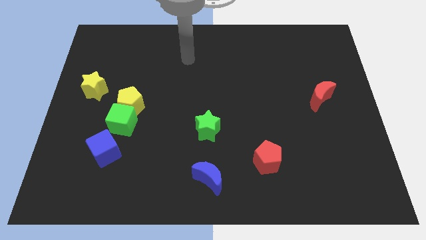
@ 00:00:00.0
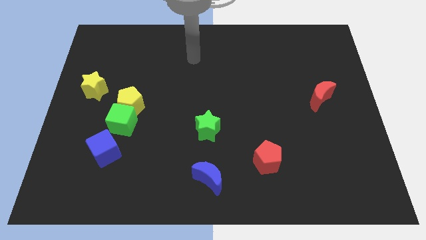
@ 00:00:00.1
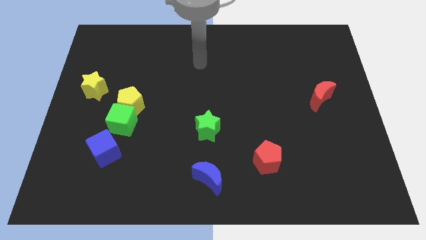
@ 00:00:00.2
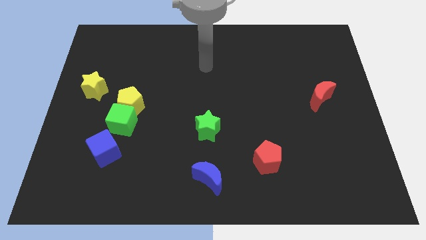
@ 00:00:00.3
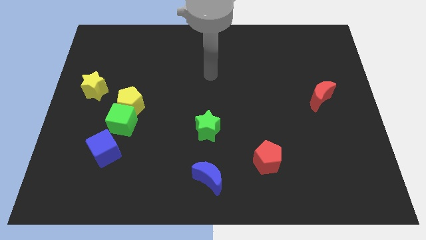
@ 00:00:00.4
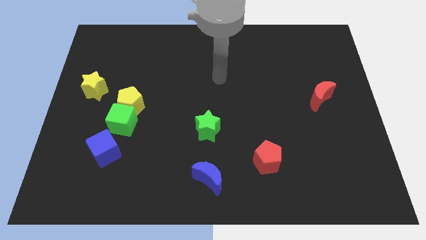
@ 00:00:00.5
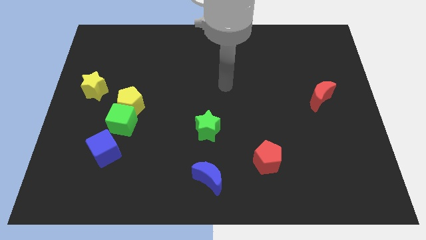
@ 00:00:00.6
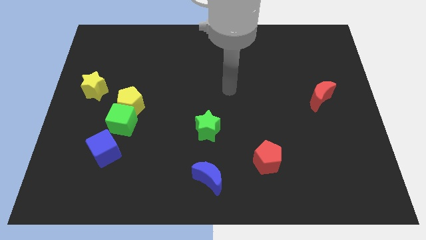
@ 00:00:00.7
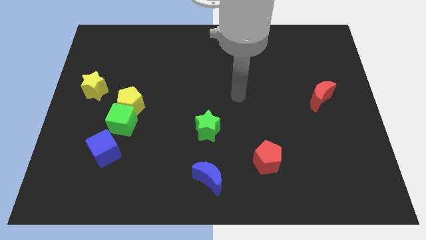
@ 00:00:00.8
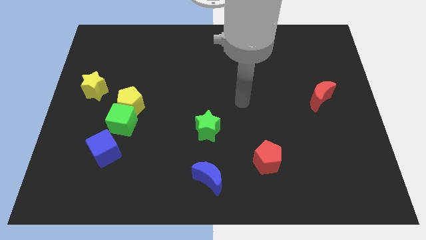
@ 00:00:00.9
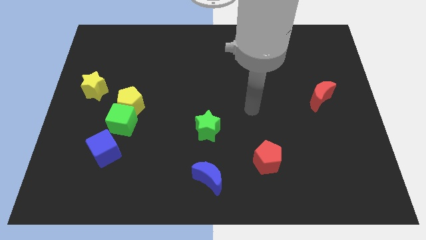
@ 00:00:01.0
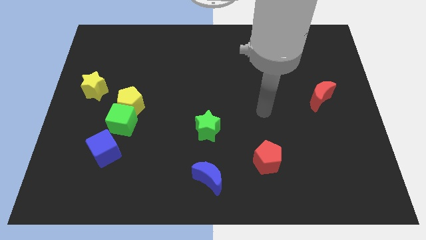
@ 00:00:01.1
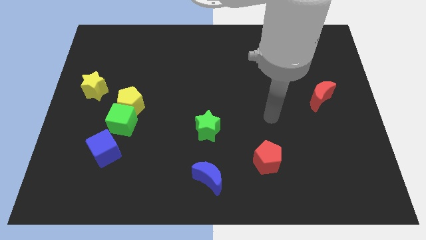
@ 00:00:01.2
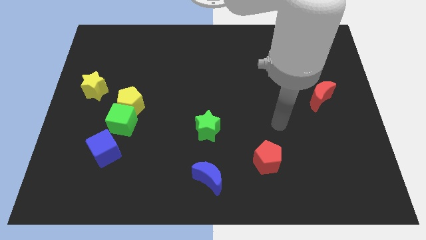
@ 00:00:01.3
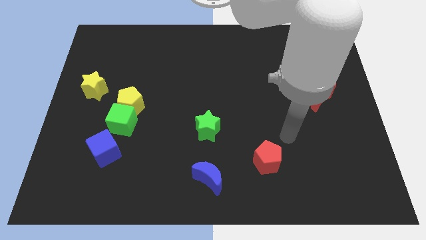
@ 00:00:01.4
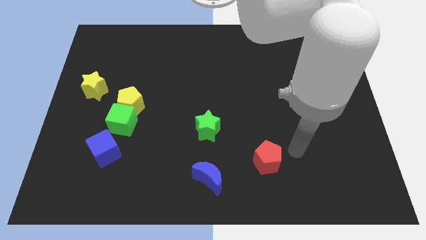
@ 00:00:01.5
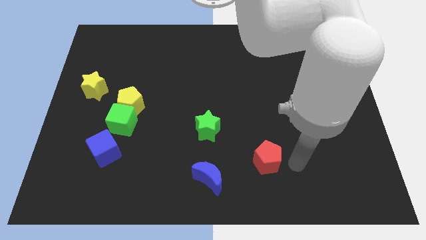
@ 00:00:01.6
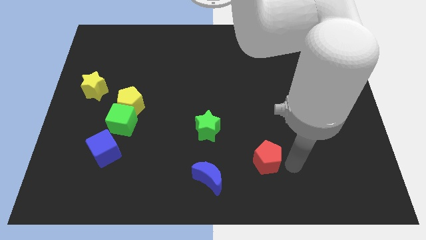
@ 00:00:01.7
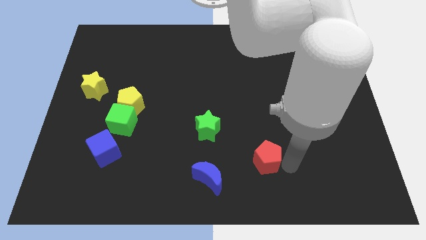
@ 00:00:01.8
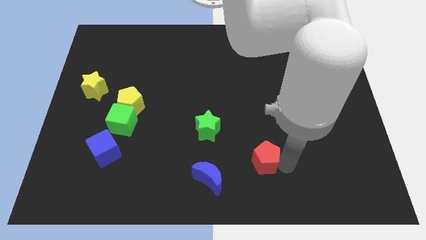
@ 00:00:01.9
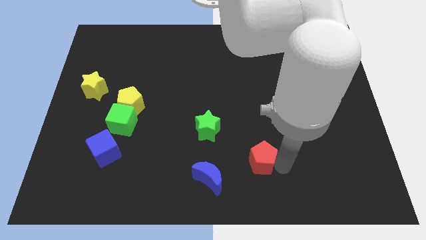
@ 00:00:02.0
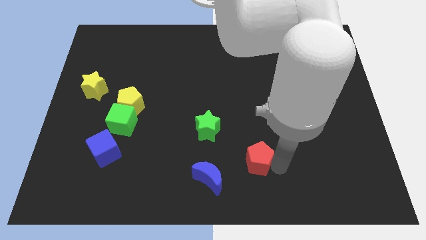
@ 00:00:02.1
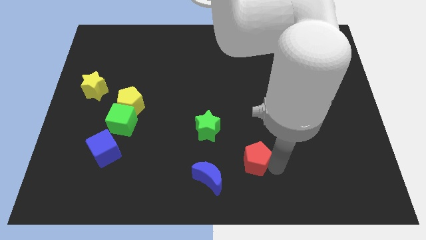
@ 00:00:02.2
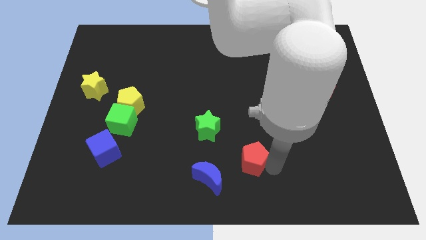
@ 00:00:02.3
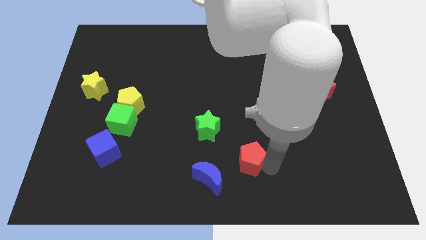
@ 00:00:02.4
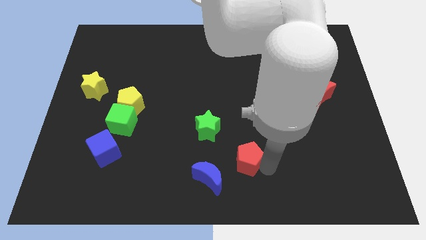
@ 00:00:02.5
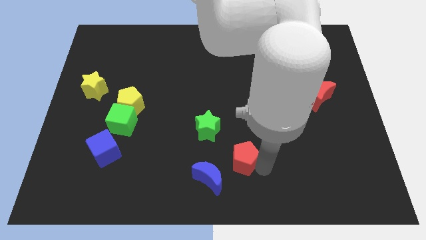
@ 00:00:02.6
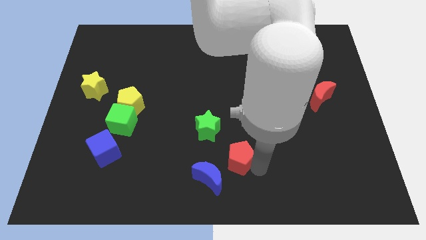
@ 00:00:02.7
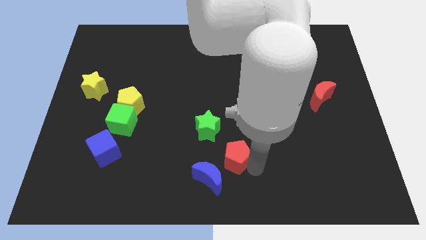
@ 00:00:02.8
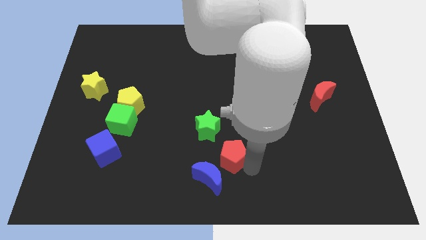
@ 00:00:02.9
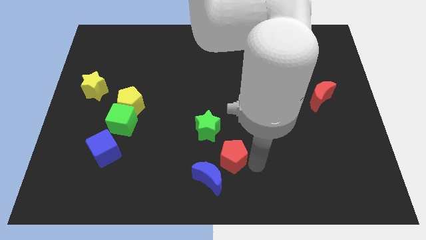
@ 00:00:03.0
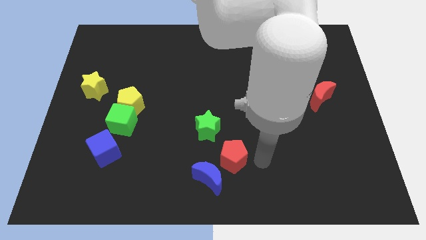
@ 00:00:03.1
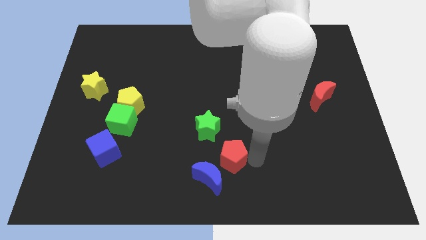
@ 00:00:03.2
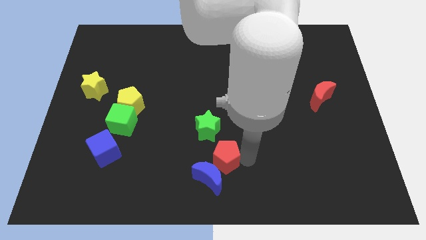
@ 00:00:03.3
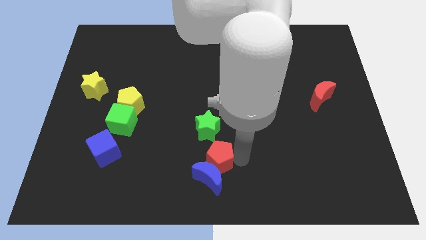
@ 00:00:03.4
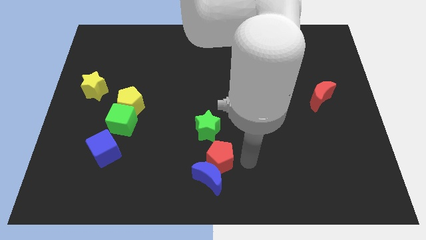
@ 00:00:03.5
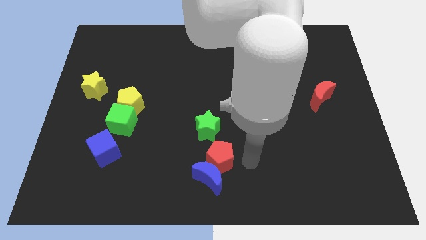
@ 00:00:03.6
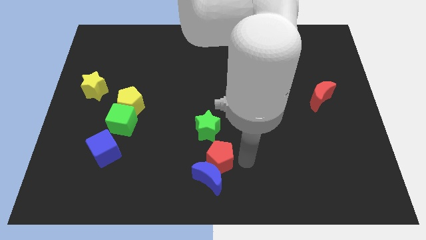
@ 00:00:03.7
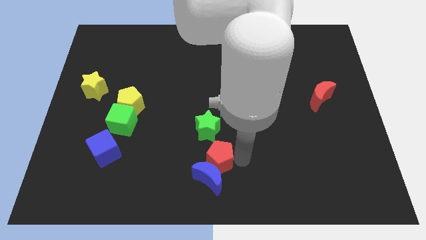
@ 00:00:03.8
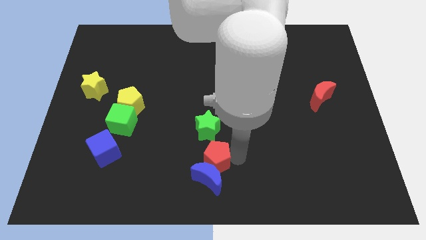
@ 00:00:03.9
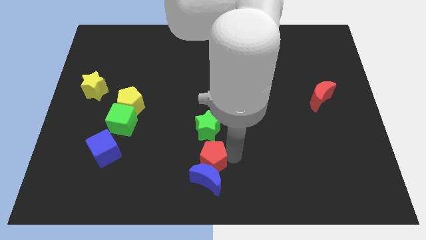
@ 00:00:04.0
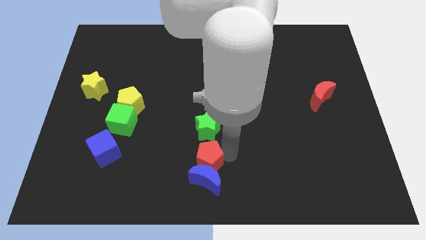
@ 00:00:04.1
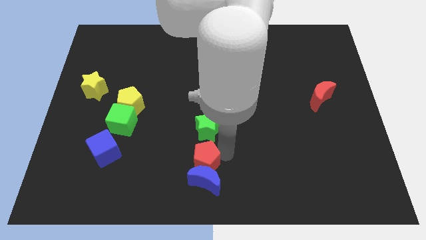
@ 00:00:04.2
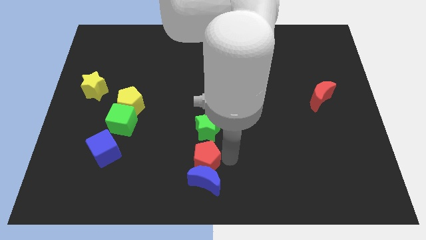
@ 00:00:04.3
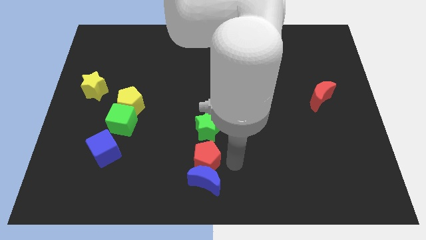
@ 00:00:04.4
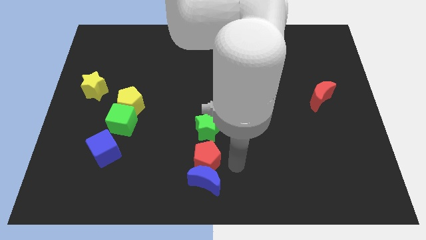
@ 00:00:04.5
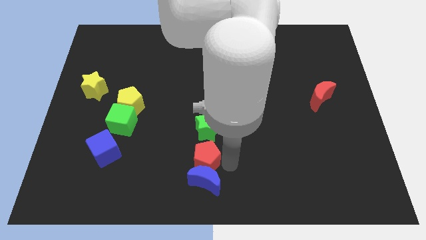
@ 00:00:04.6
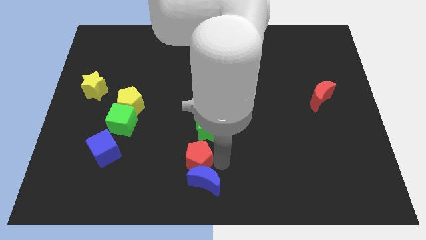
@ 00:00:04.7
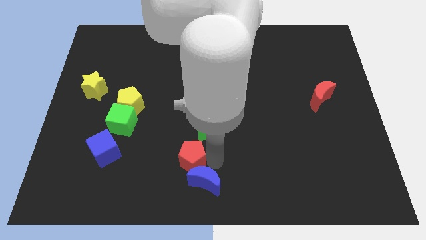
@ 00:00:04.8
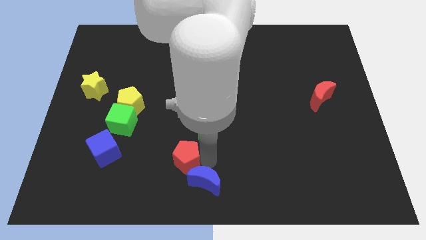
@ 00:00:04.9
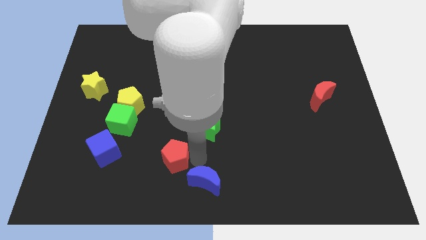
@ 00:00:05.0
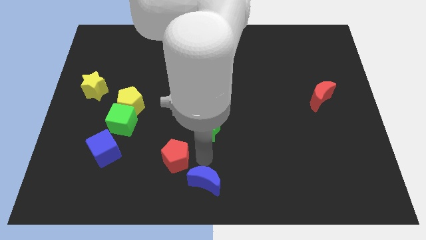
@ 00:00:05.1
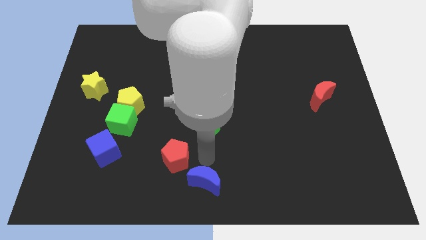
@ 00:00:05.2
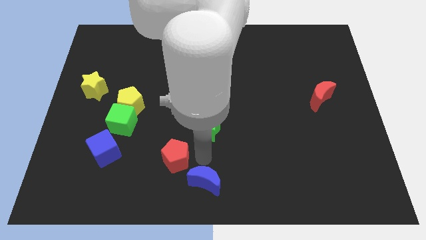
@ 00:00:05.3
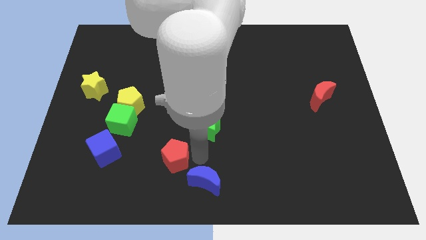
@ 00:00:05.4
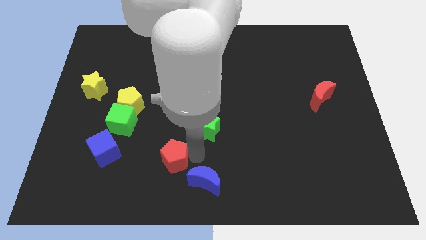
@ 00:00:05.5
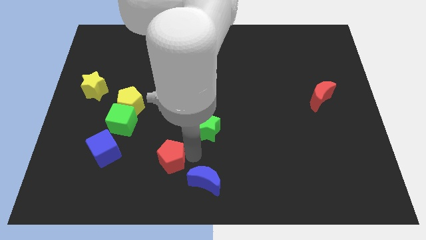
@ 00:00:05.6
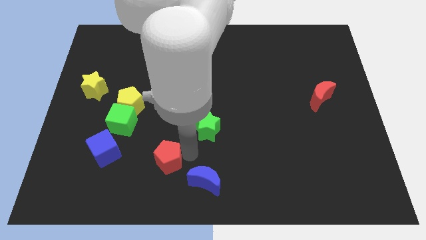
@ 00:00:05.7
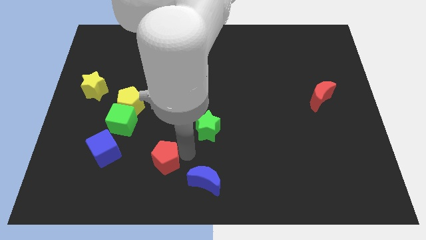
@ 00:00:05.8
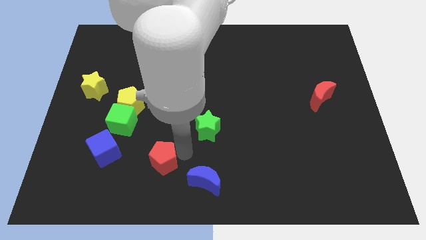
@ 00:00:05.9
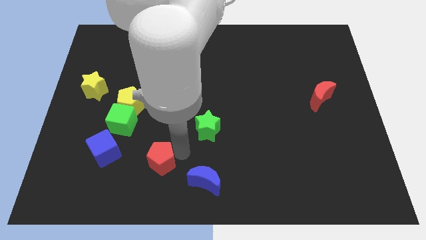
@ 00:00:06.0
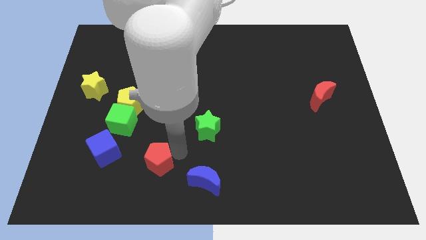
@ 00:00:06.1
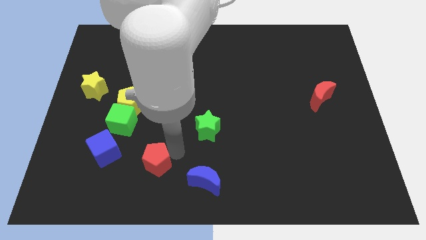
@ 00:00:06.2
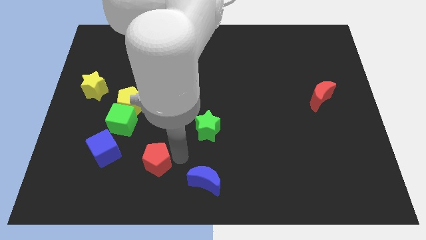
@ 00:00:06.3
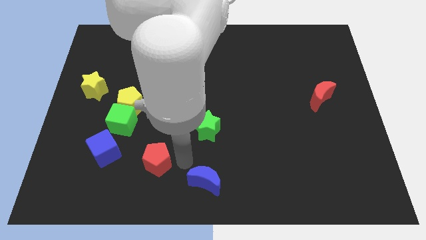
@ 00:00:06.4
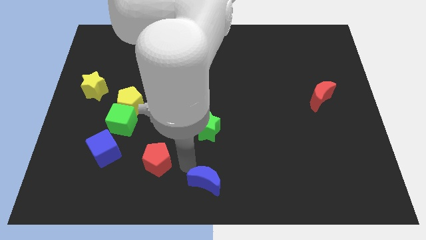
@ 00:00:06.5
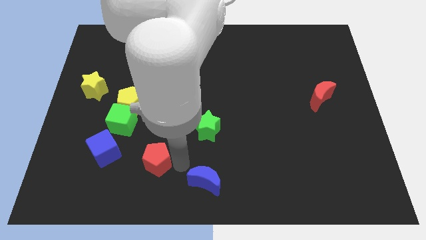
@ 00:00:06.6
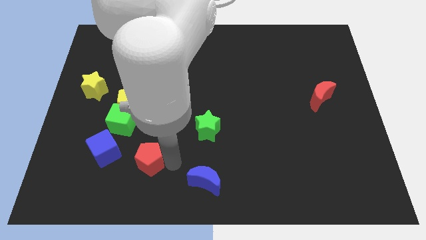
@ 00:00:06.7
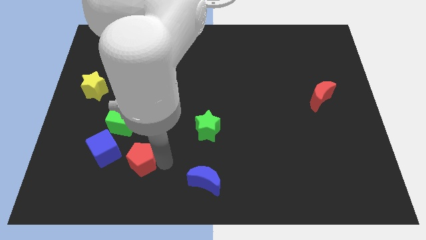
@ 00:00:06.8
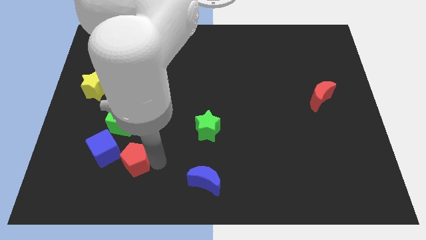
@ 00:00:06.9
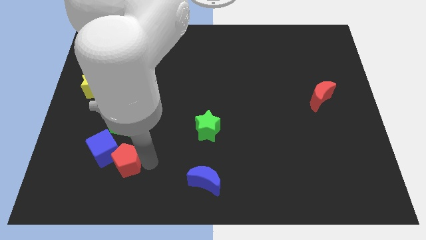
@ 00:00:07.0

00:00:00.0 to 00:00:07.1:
put the red pentagon to the blue cube

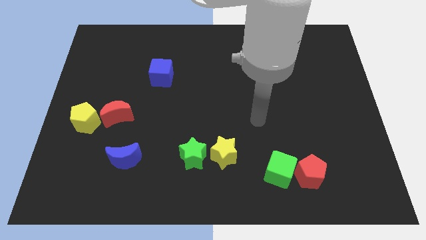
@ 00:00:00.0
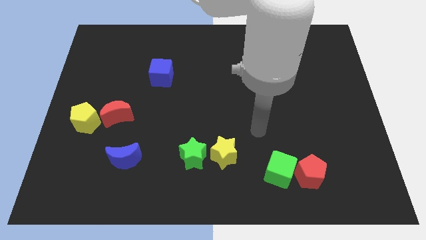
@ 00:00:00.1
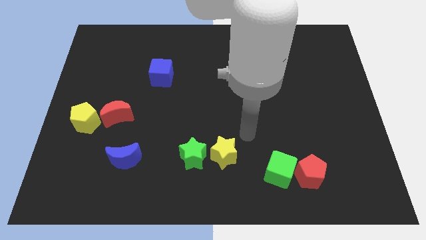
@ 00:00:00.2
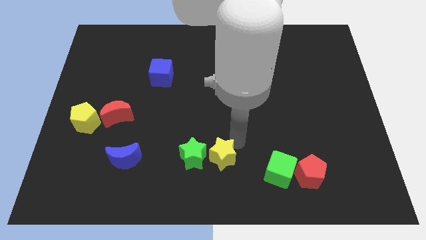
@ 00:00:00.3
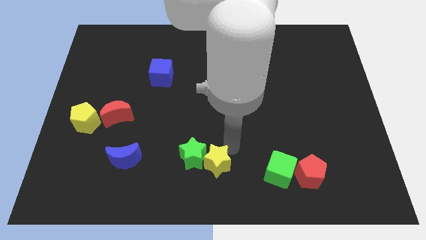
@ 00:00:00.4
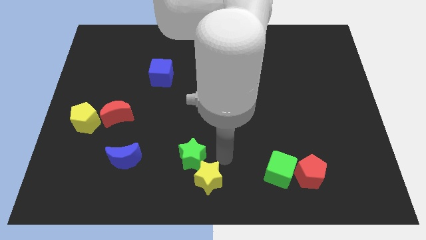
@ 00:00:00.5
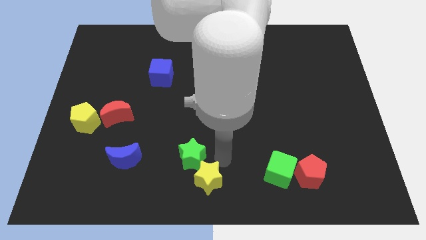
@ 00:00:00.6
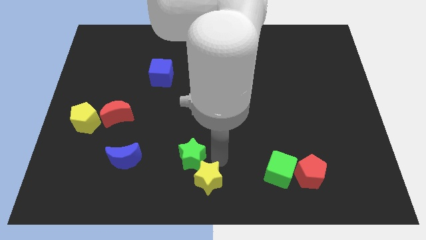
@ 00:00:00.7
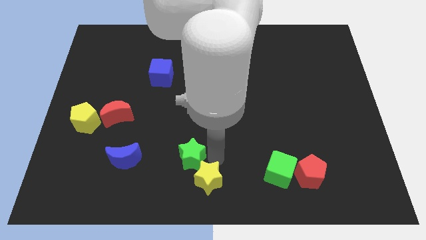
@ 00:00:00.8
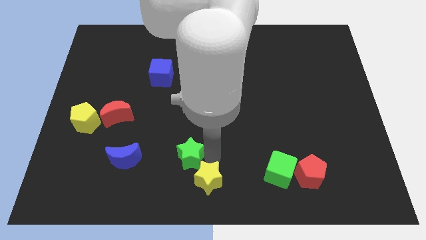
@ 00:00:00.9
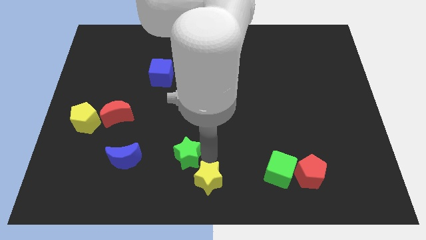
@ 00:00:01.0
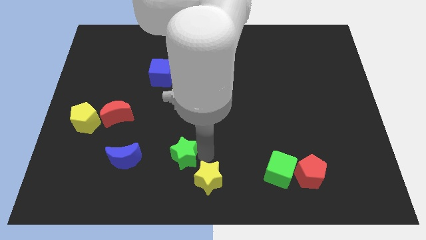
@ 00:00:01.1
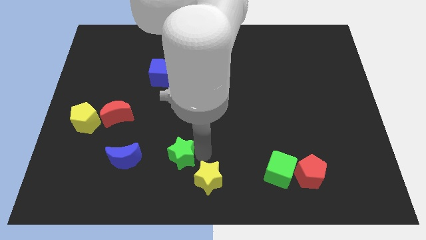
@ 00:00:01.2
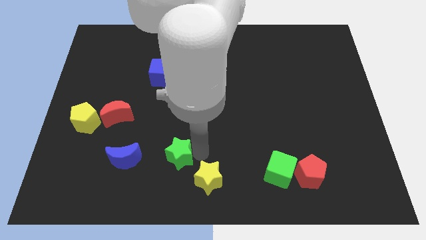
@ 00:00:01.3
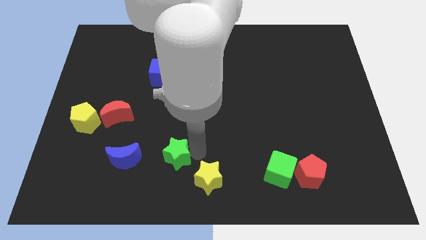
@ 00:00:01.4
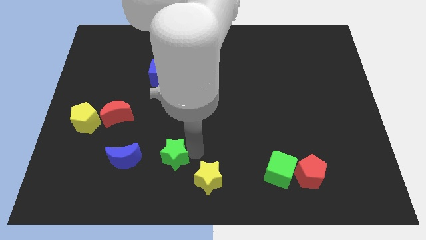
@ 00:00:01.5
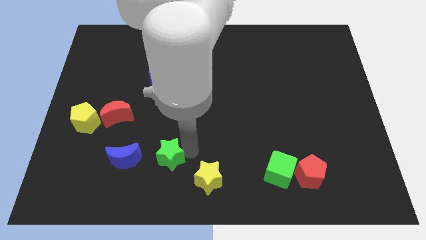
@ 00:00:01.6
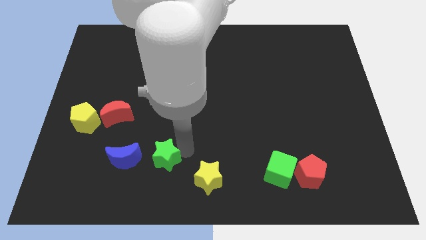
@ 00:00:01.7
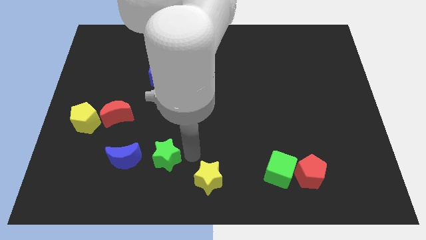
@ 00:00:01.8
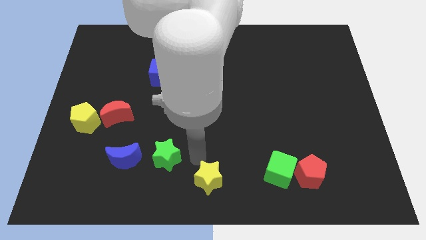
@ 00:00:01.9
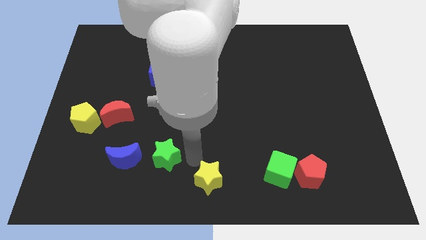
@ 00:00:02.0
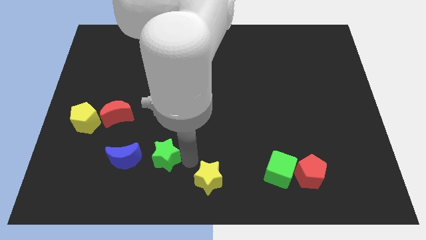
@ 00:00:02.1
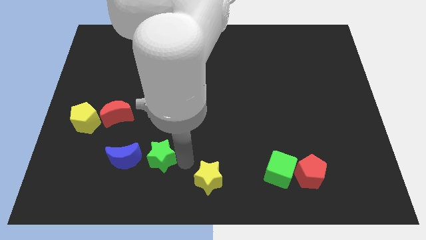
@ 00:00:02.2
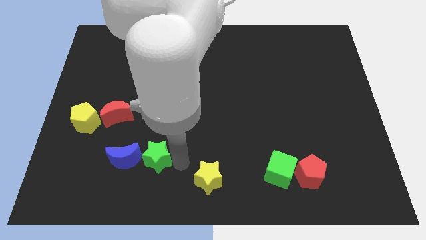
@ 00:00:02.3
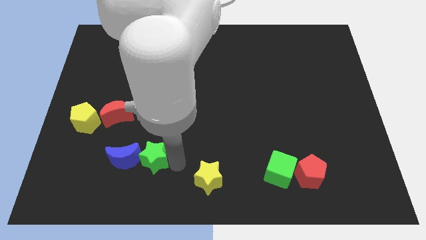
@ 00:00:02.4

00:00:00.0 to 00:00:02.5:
move the green star close to the blue moon
